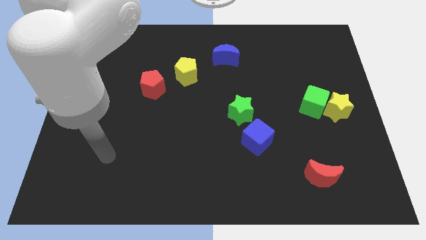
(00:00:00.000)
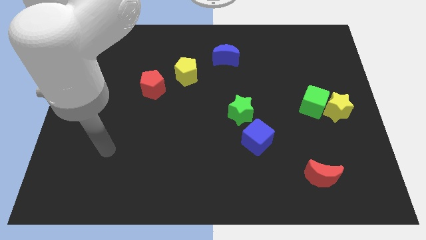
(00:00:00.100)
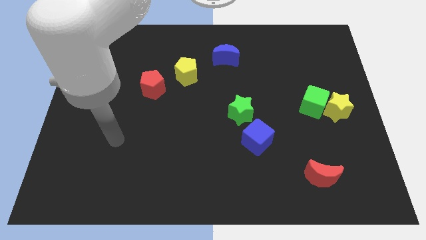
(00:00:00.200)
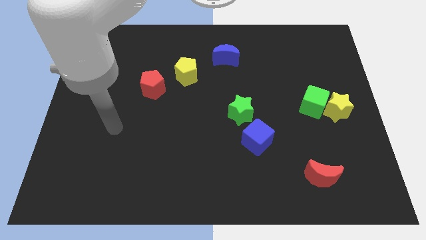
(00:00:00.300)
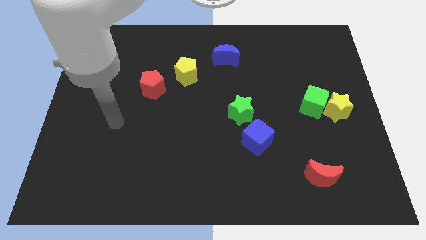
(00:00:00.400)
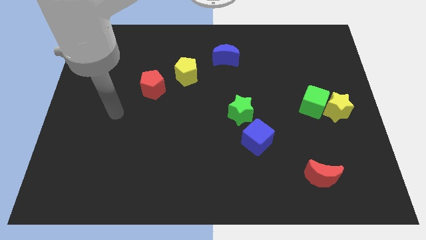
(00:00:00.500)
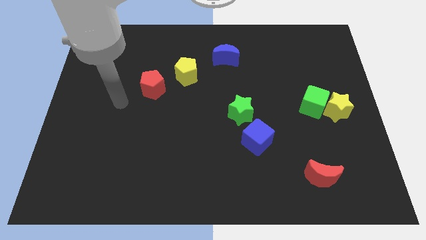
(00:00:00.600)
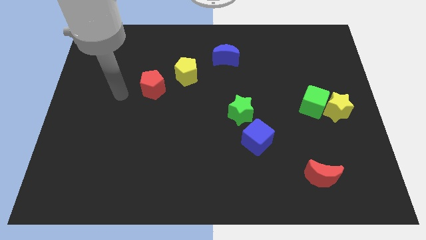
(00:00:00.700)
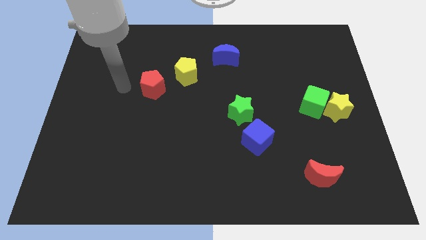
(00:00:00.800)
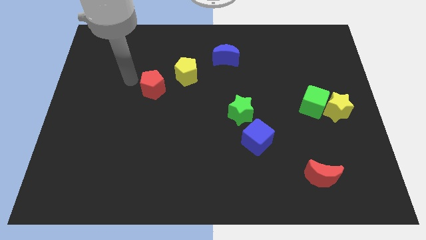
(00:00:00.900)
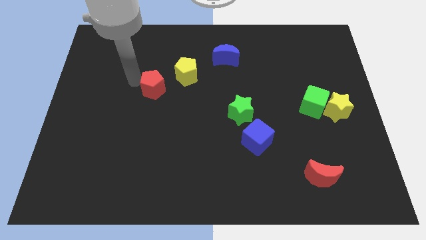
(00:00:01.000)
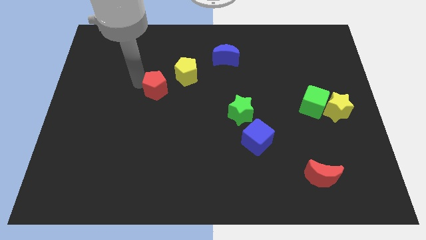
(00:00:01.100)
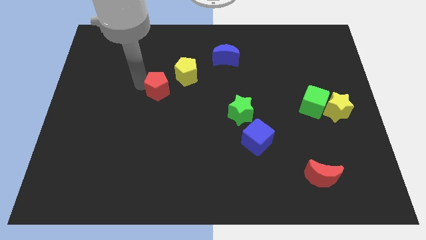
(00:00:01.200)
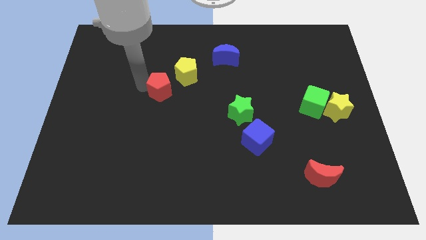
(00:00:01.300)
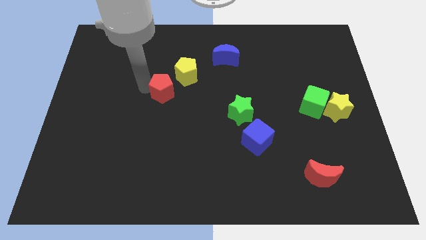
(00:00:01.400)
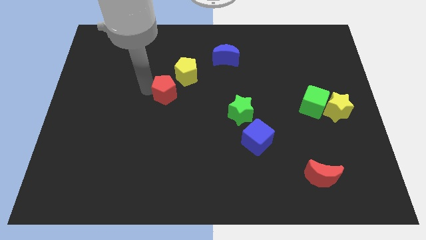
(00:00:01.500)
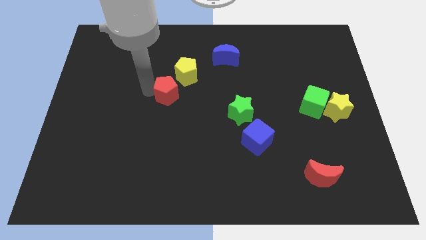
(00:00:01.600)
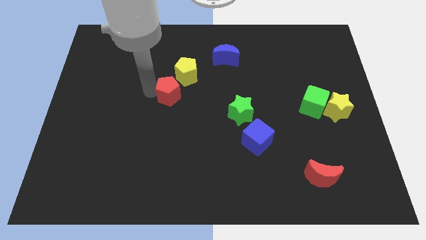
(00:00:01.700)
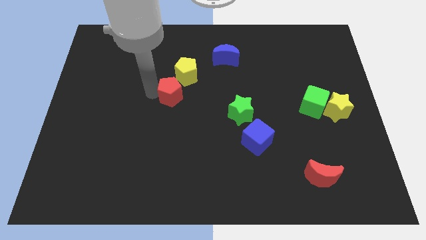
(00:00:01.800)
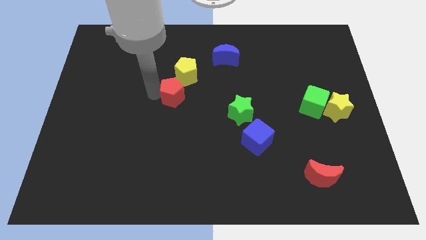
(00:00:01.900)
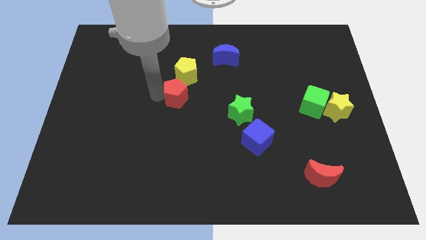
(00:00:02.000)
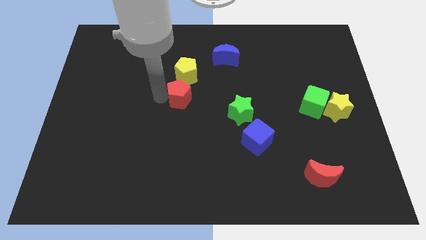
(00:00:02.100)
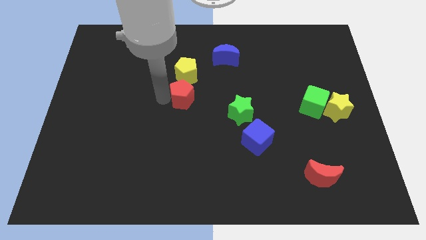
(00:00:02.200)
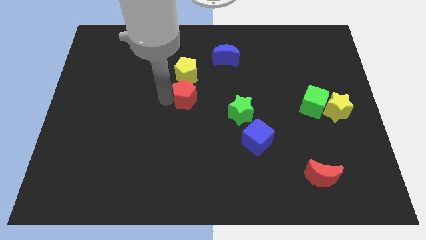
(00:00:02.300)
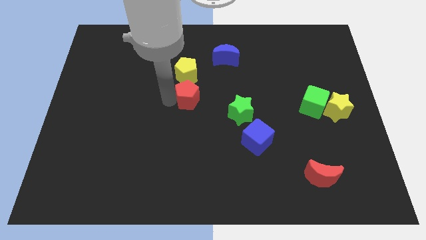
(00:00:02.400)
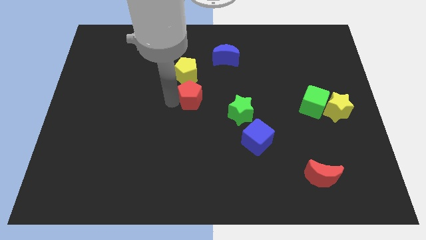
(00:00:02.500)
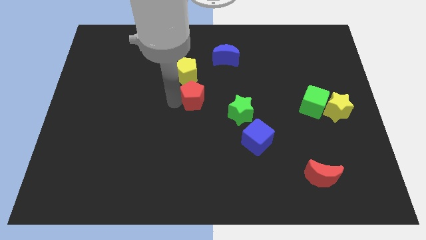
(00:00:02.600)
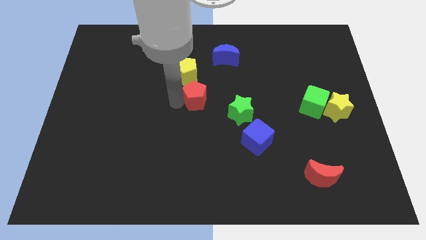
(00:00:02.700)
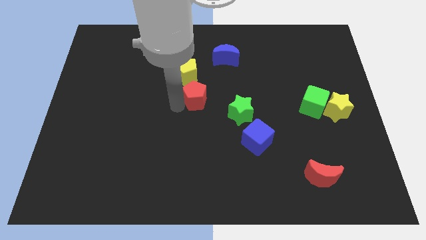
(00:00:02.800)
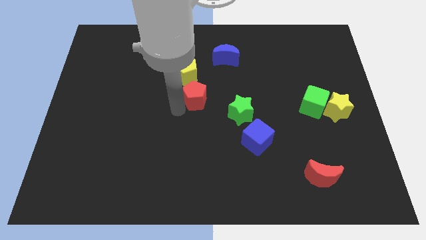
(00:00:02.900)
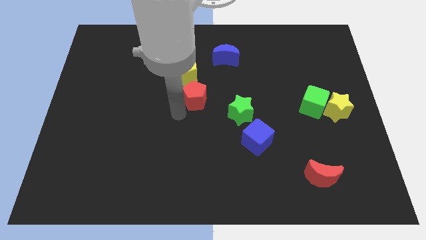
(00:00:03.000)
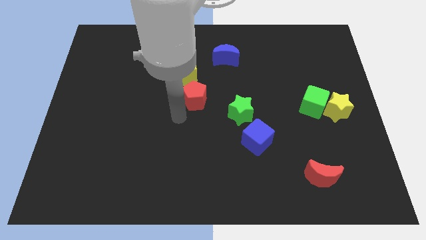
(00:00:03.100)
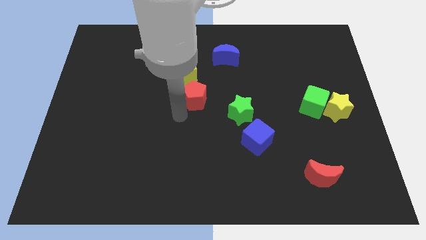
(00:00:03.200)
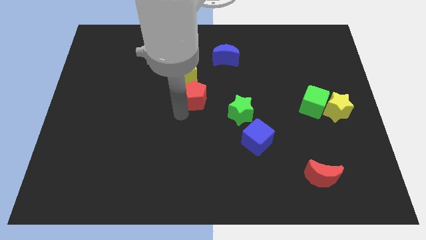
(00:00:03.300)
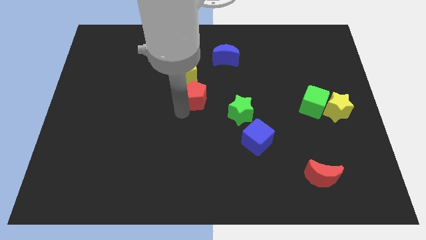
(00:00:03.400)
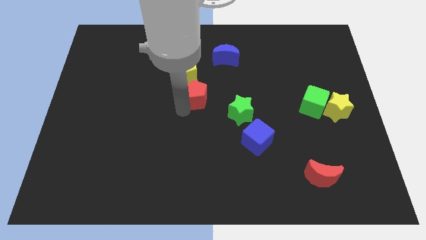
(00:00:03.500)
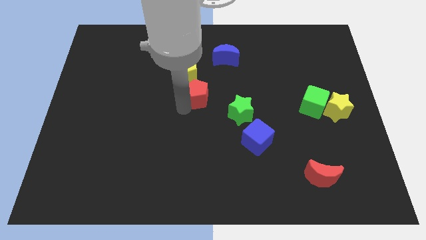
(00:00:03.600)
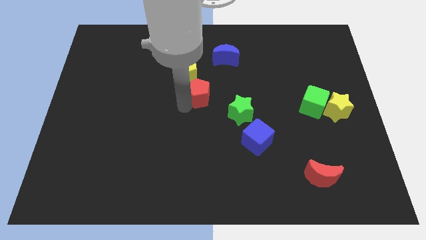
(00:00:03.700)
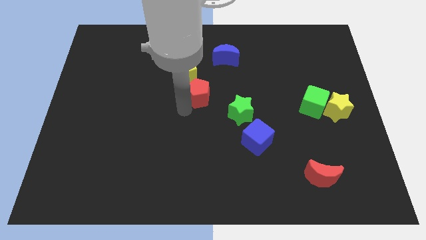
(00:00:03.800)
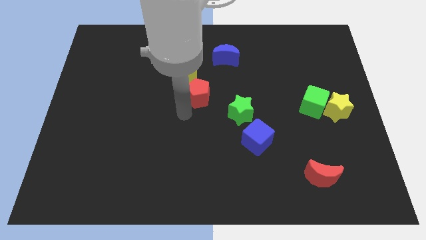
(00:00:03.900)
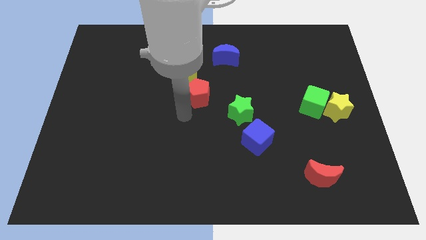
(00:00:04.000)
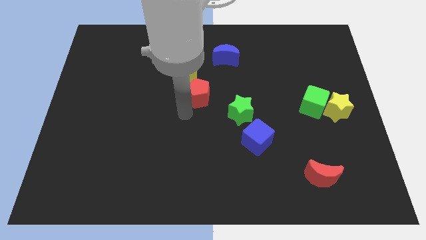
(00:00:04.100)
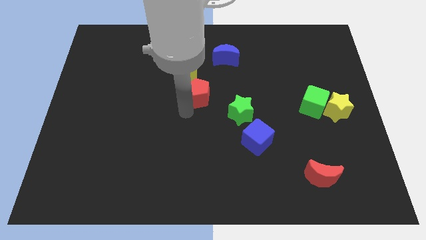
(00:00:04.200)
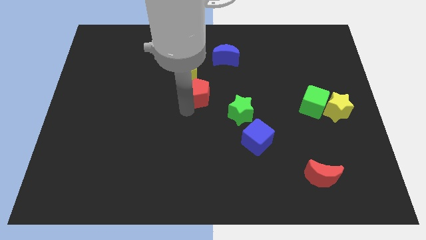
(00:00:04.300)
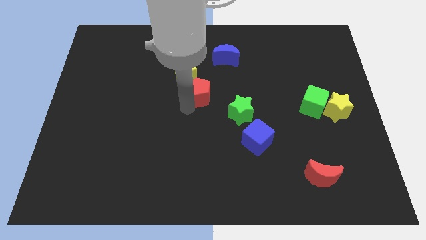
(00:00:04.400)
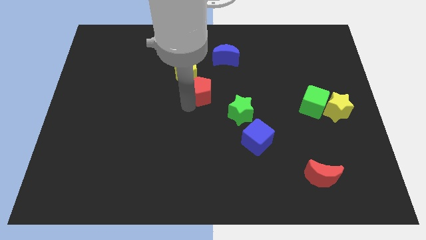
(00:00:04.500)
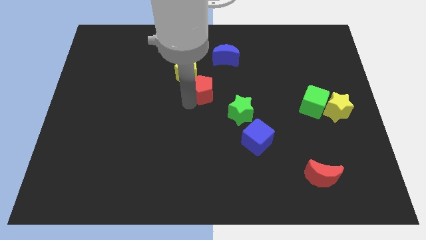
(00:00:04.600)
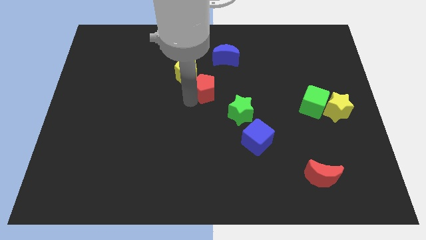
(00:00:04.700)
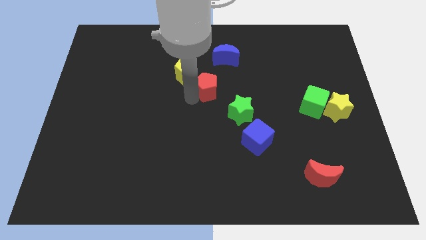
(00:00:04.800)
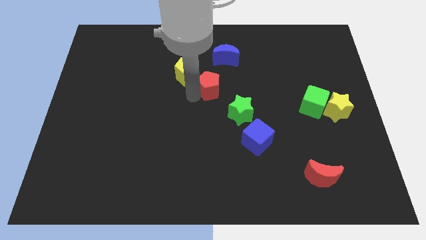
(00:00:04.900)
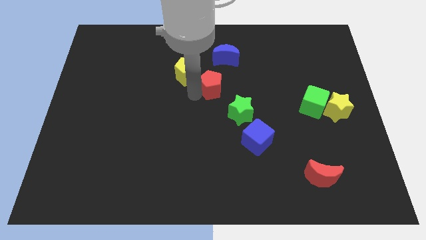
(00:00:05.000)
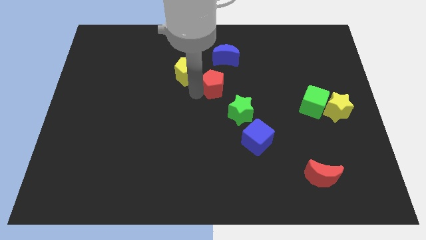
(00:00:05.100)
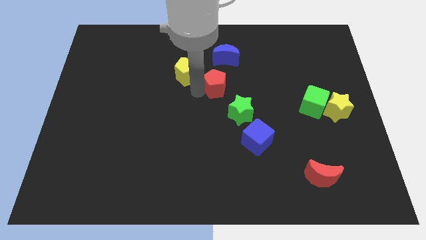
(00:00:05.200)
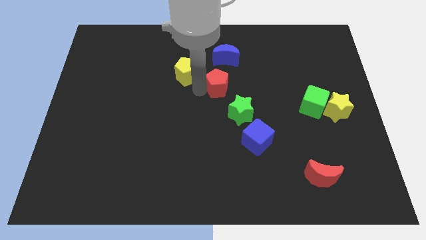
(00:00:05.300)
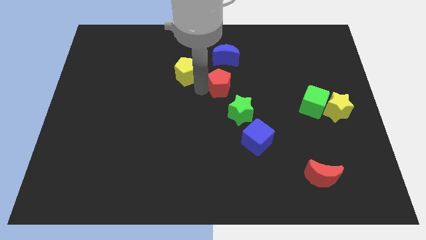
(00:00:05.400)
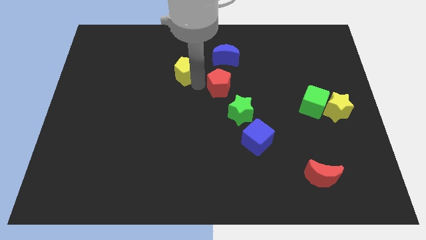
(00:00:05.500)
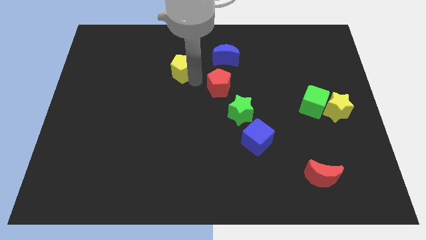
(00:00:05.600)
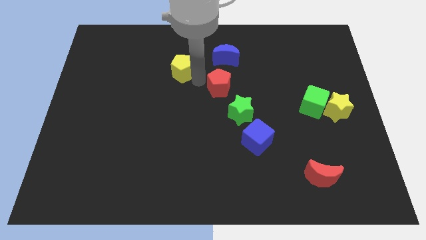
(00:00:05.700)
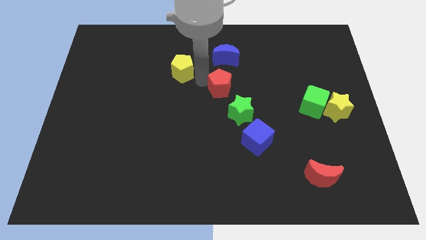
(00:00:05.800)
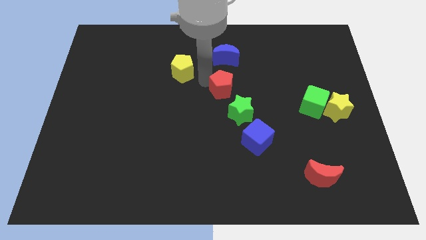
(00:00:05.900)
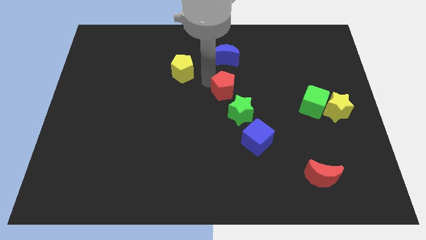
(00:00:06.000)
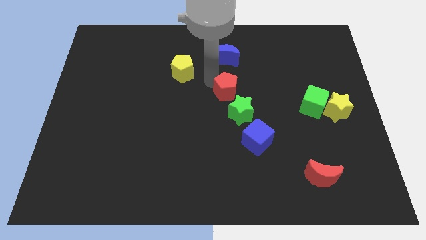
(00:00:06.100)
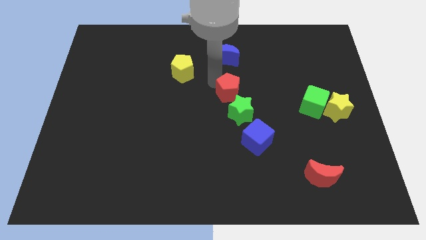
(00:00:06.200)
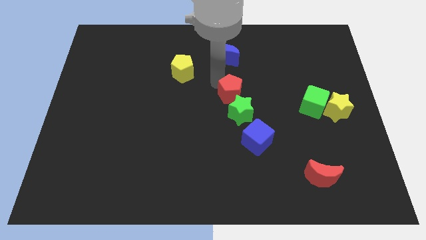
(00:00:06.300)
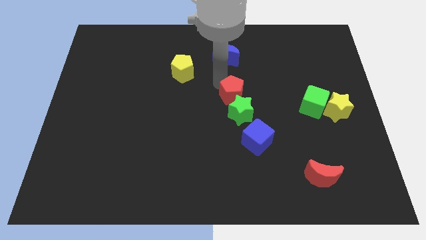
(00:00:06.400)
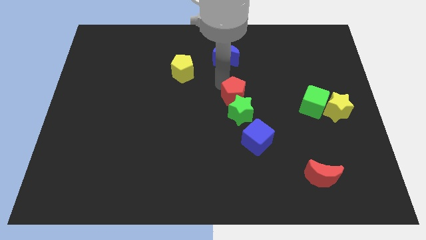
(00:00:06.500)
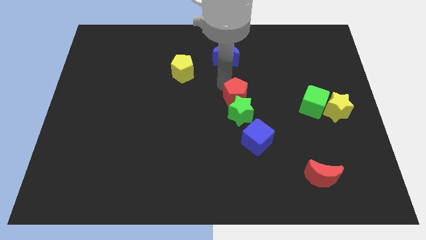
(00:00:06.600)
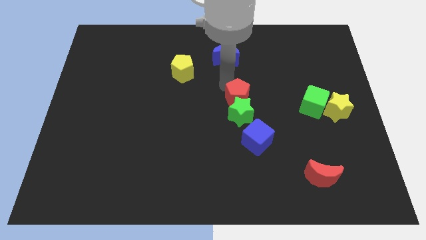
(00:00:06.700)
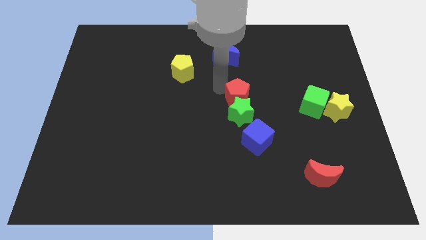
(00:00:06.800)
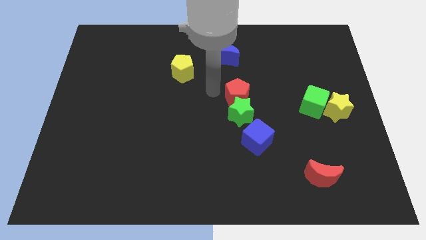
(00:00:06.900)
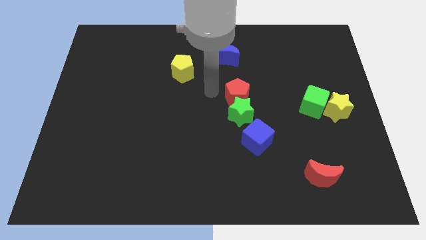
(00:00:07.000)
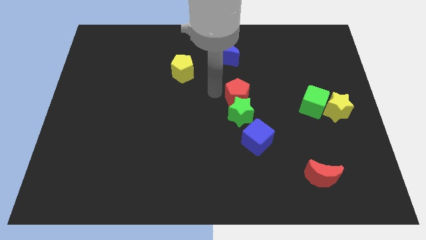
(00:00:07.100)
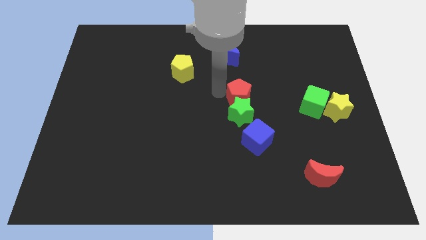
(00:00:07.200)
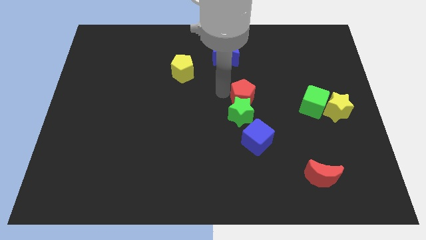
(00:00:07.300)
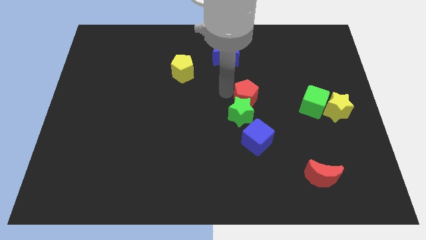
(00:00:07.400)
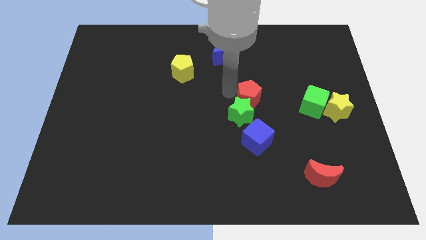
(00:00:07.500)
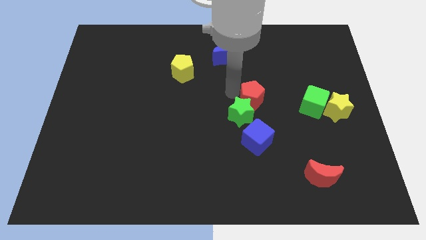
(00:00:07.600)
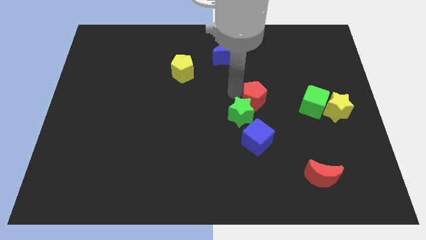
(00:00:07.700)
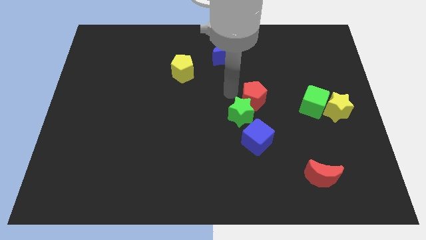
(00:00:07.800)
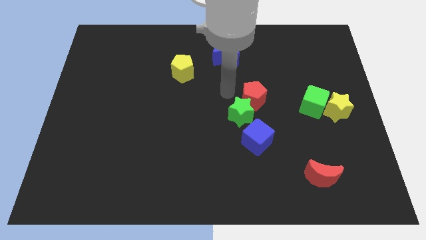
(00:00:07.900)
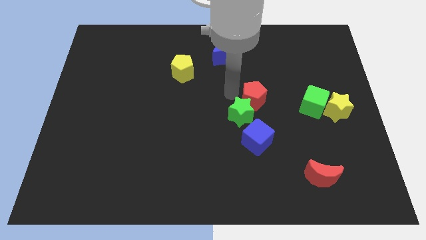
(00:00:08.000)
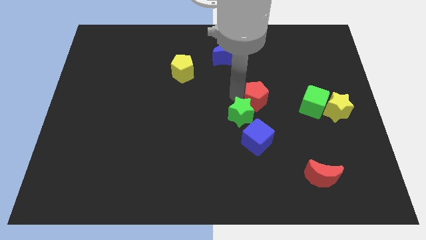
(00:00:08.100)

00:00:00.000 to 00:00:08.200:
put the red pentagon to the right side of the green star
